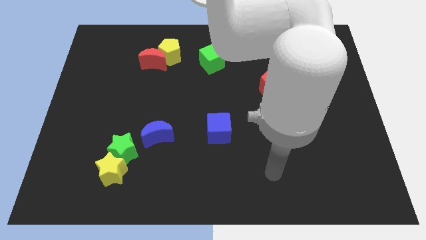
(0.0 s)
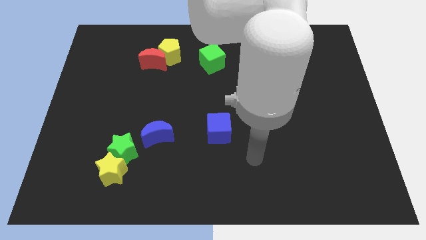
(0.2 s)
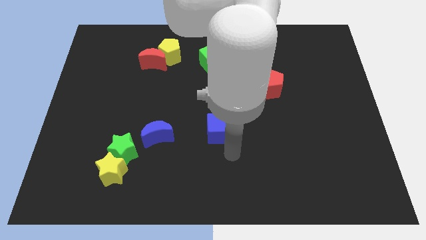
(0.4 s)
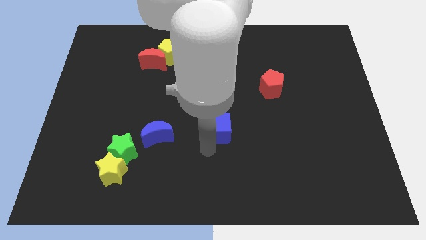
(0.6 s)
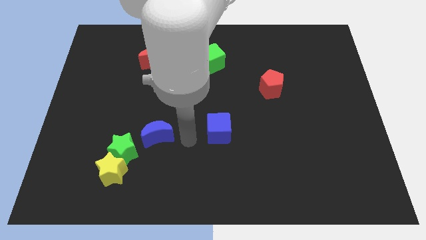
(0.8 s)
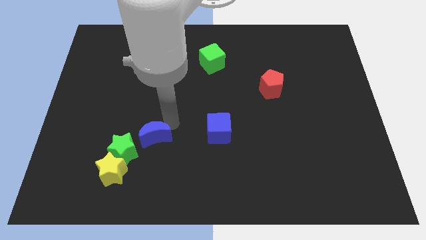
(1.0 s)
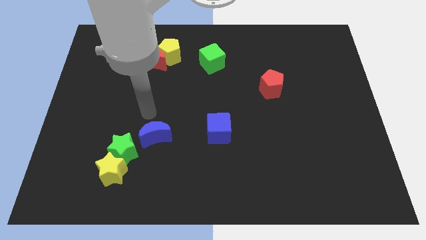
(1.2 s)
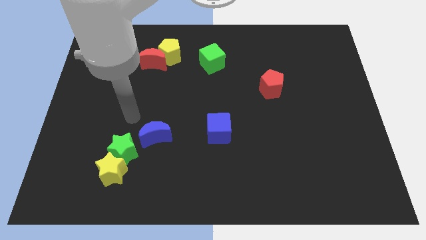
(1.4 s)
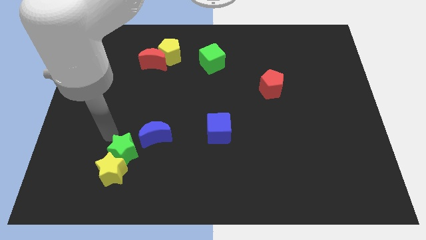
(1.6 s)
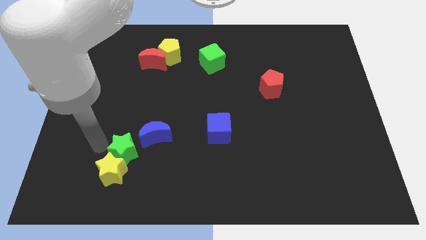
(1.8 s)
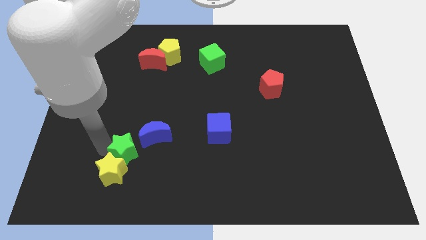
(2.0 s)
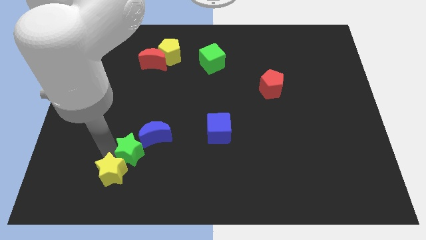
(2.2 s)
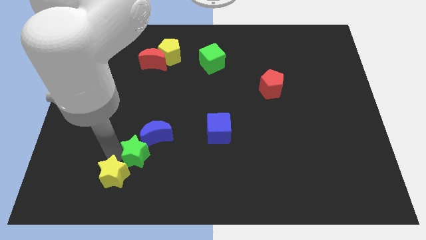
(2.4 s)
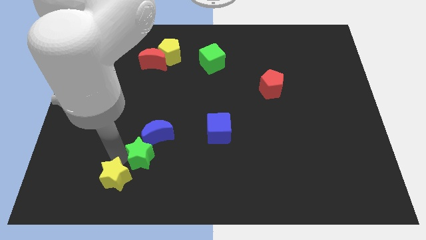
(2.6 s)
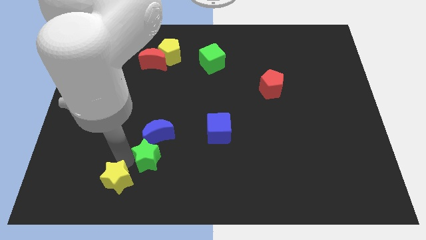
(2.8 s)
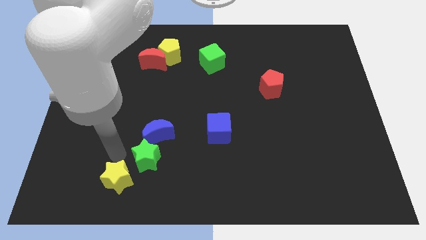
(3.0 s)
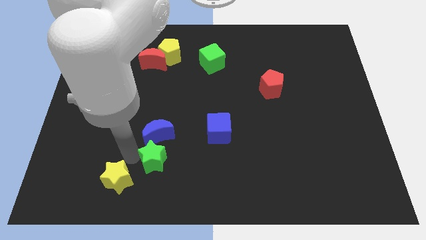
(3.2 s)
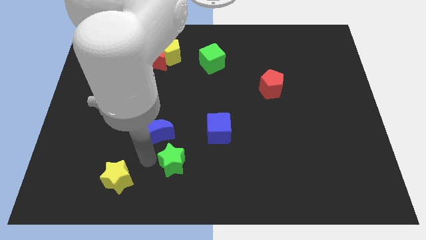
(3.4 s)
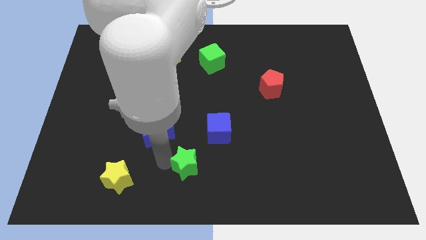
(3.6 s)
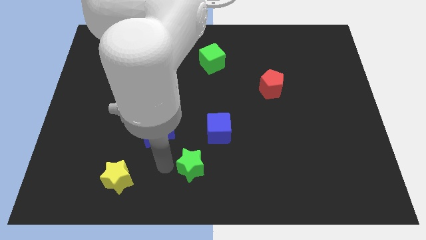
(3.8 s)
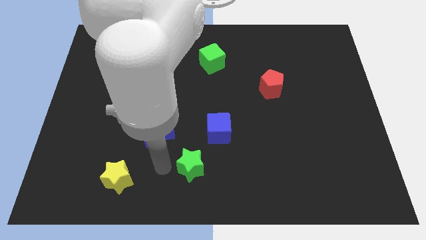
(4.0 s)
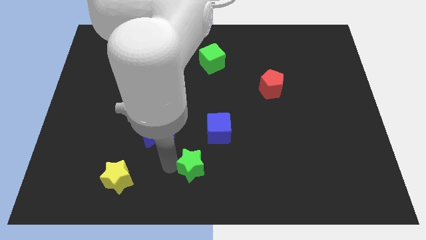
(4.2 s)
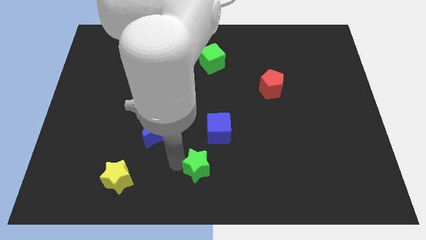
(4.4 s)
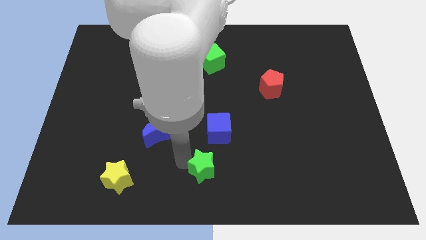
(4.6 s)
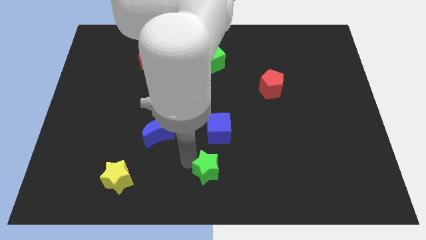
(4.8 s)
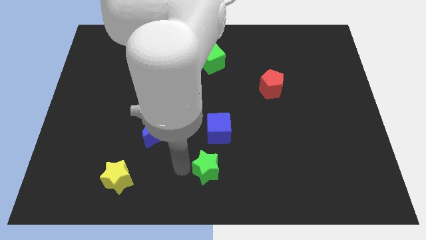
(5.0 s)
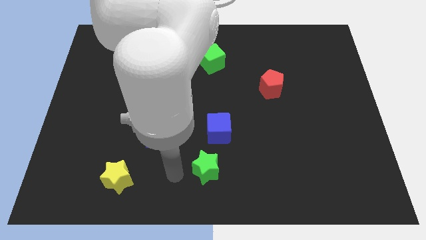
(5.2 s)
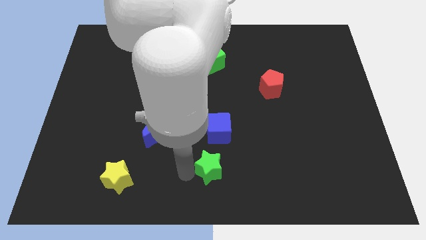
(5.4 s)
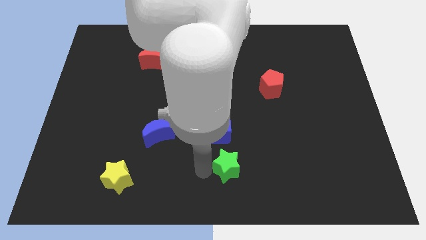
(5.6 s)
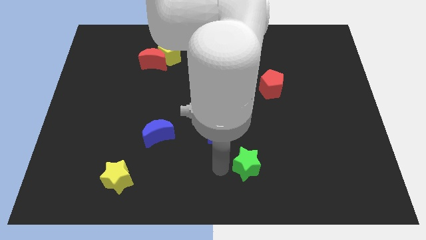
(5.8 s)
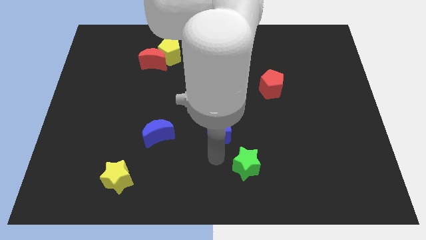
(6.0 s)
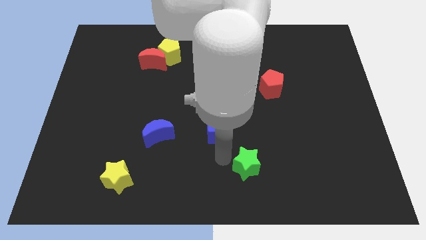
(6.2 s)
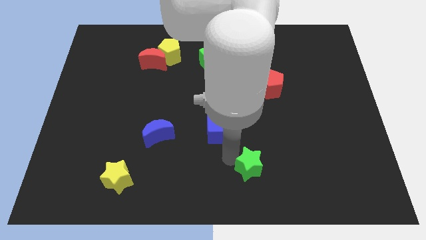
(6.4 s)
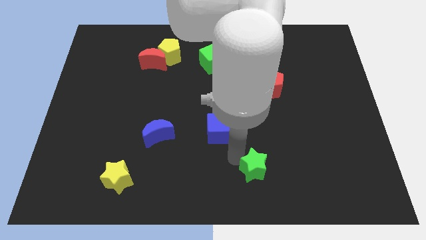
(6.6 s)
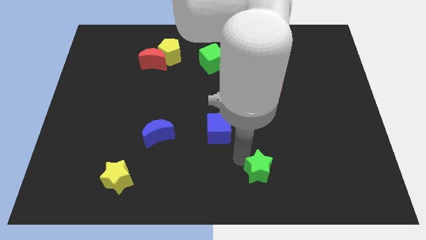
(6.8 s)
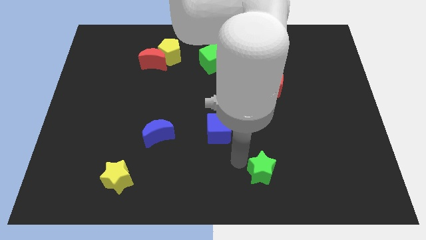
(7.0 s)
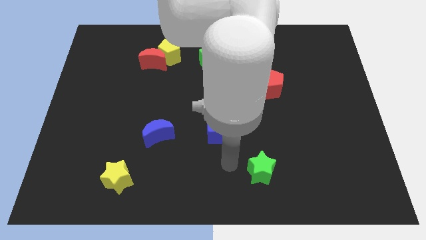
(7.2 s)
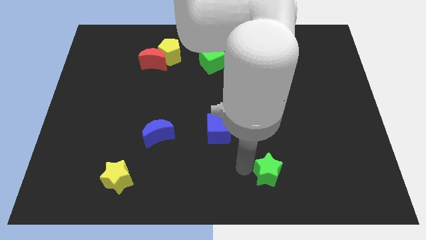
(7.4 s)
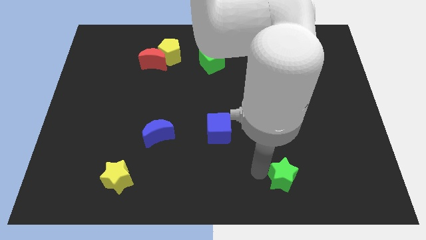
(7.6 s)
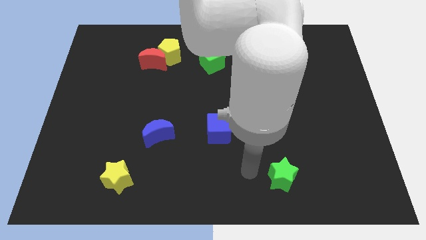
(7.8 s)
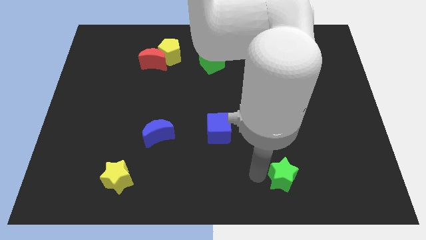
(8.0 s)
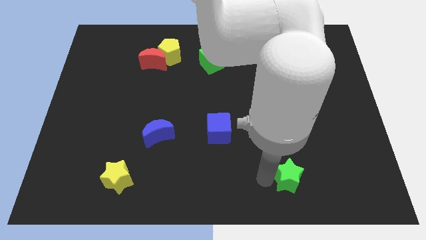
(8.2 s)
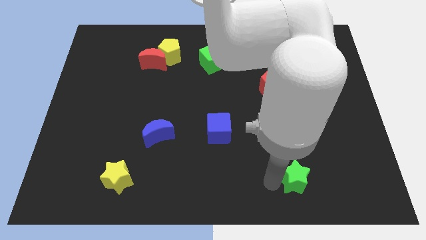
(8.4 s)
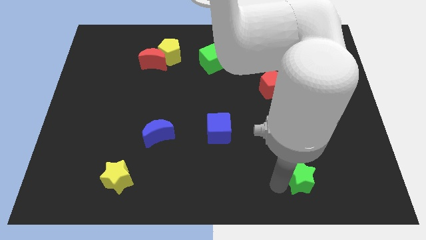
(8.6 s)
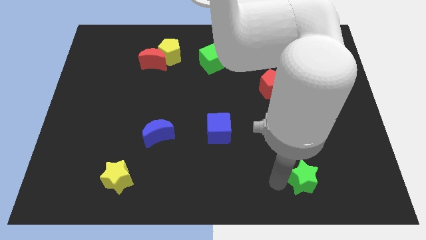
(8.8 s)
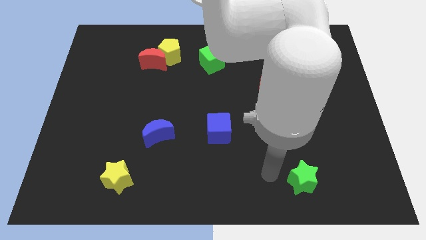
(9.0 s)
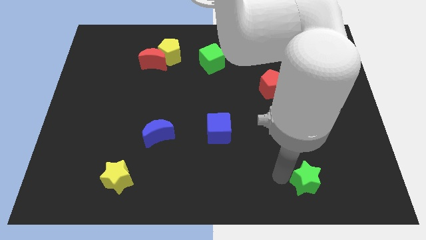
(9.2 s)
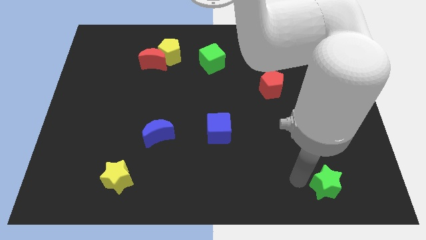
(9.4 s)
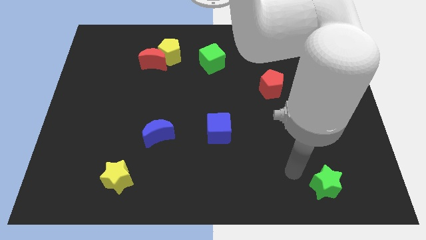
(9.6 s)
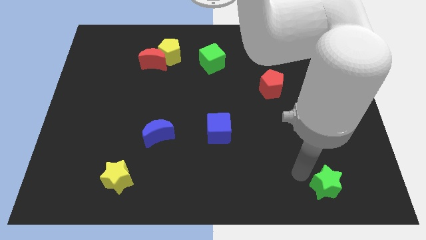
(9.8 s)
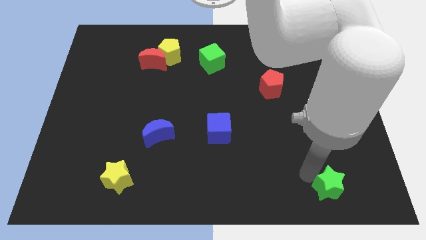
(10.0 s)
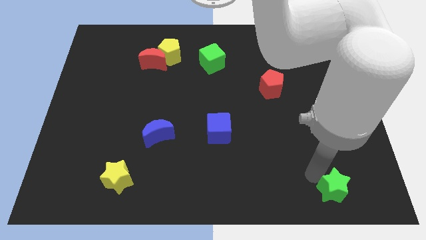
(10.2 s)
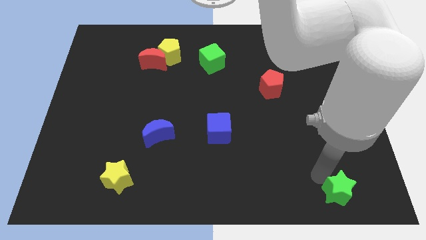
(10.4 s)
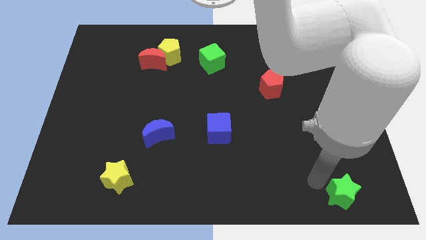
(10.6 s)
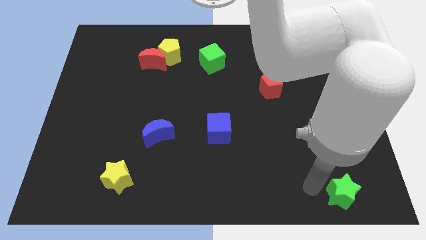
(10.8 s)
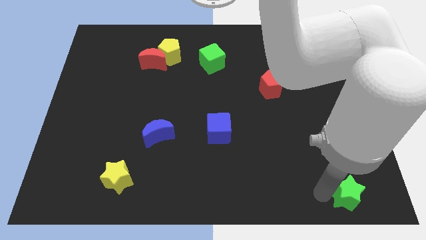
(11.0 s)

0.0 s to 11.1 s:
push the green star to the bottom right of the board

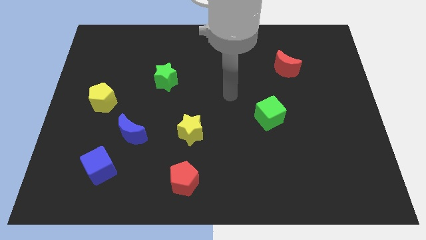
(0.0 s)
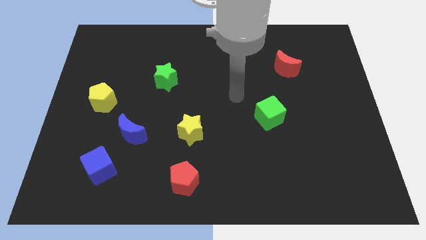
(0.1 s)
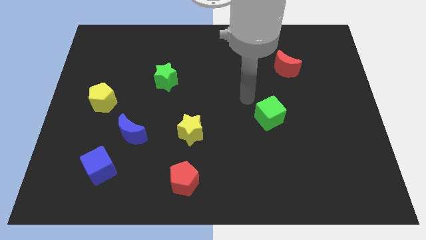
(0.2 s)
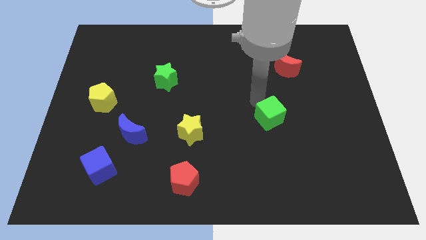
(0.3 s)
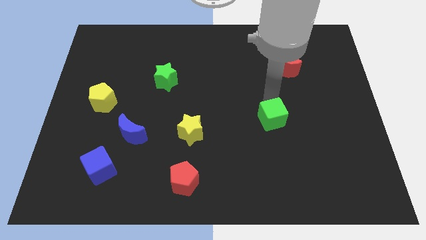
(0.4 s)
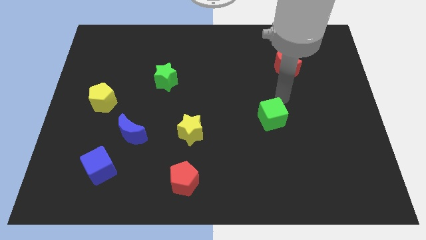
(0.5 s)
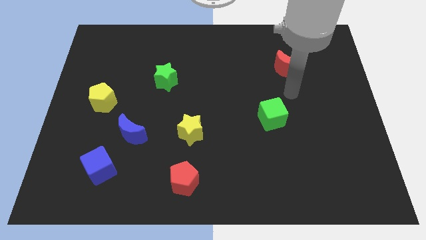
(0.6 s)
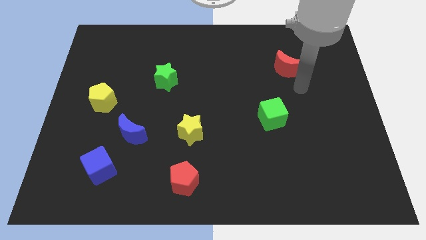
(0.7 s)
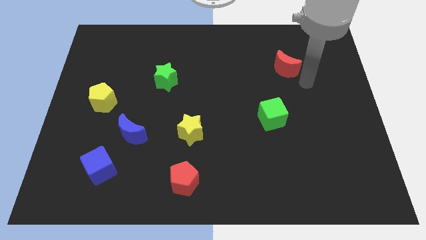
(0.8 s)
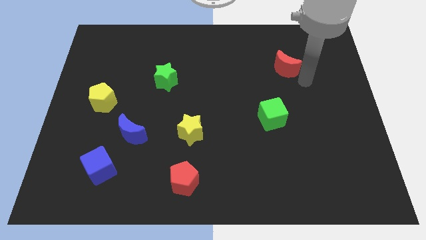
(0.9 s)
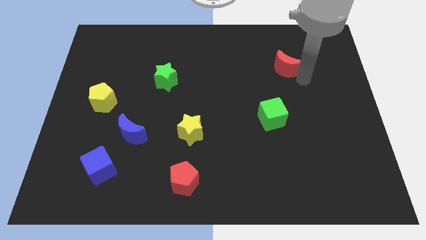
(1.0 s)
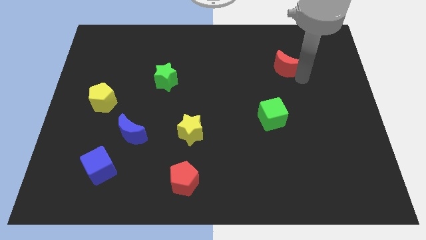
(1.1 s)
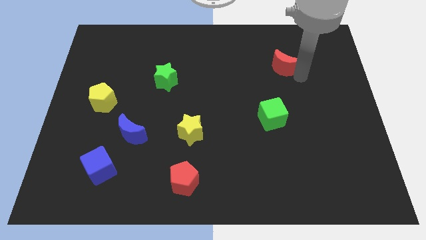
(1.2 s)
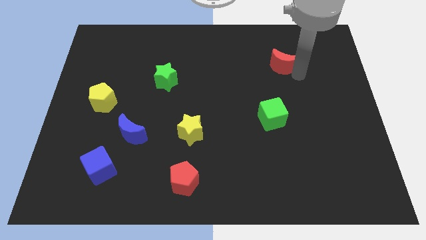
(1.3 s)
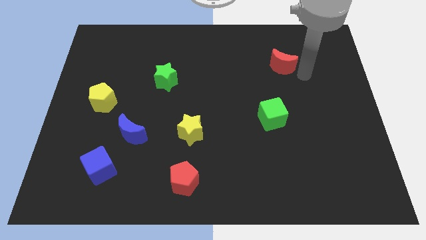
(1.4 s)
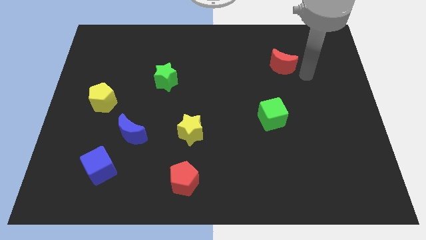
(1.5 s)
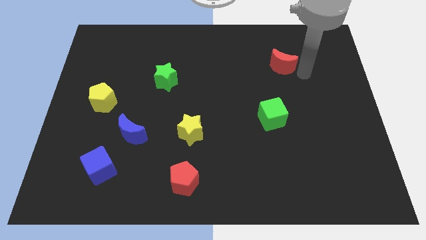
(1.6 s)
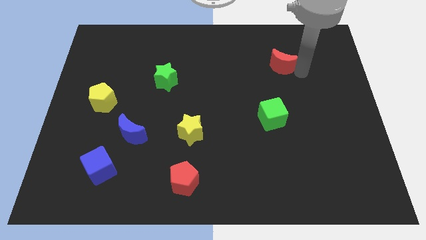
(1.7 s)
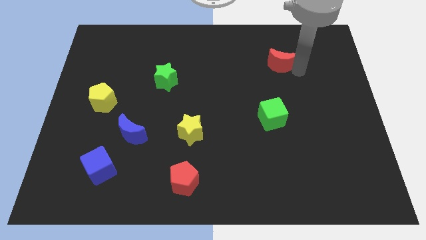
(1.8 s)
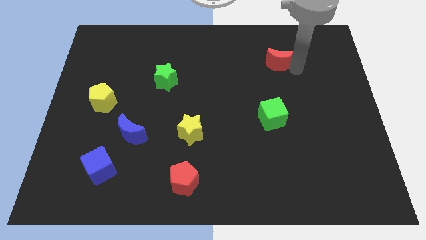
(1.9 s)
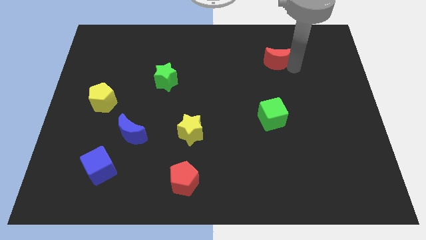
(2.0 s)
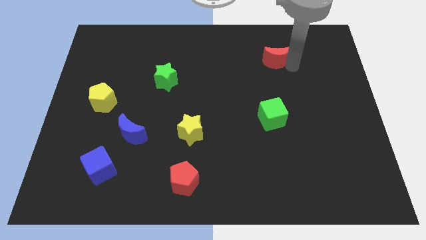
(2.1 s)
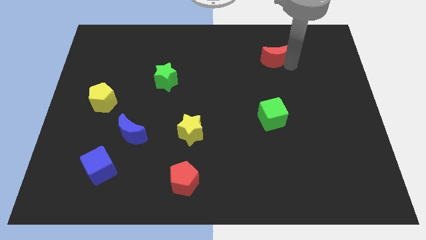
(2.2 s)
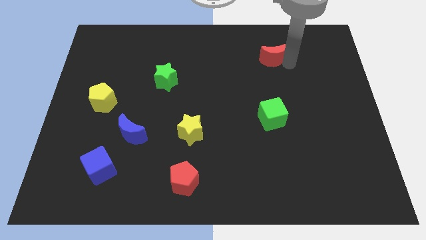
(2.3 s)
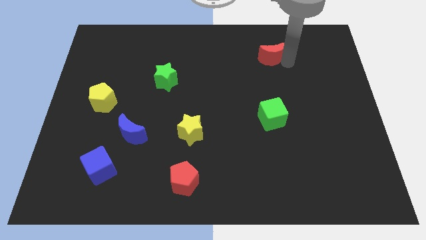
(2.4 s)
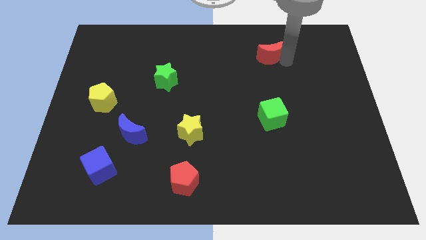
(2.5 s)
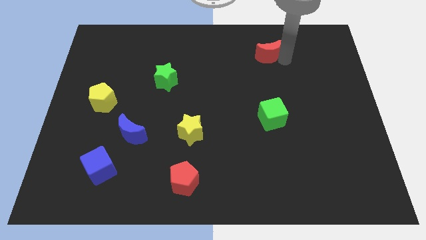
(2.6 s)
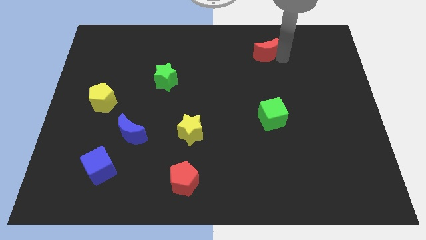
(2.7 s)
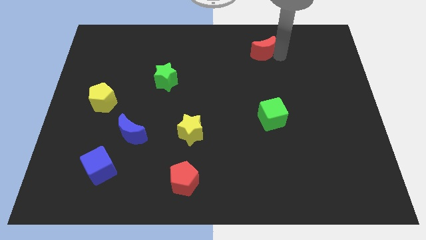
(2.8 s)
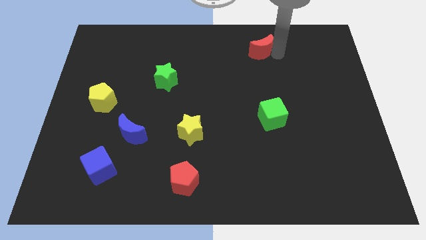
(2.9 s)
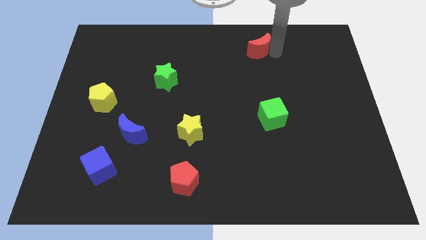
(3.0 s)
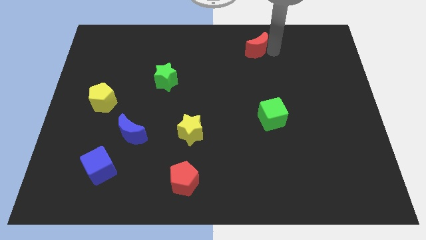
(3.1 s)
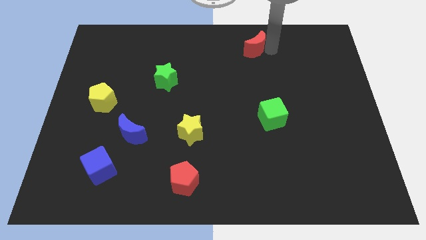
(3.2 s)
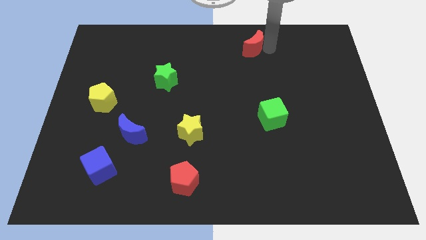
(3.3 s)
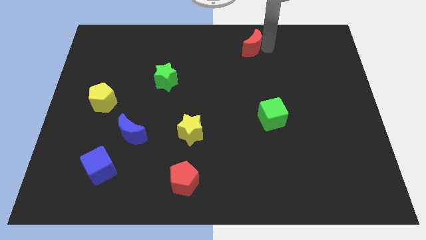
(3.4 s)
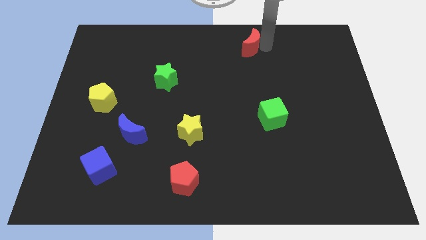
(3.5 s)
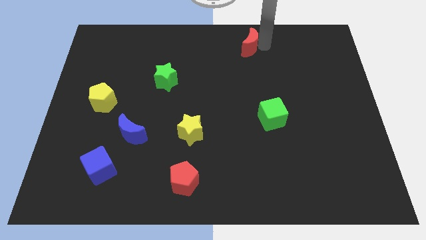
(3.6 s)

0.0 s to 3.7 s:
slide the red moon to the towards your base
